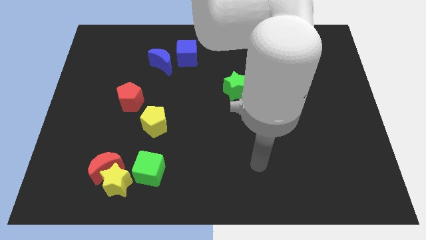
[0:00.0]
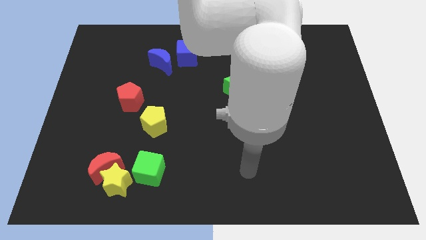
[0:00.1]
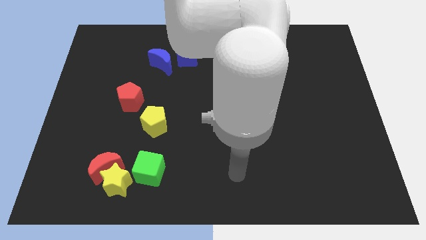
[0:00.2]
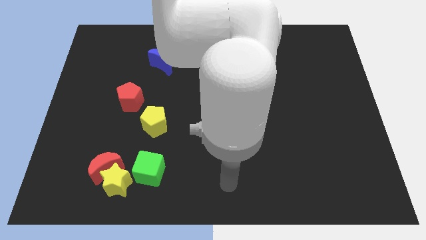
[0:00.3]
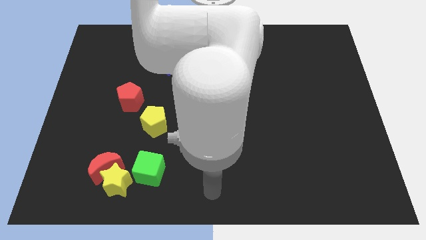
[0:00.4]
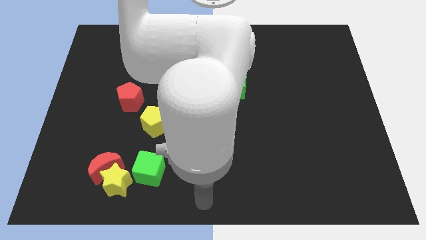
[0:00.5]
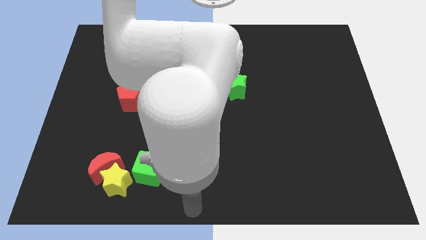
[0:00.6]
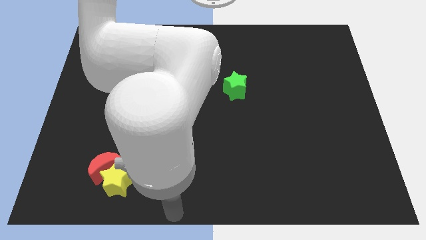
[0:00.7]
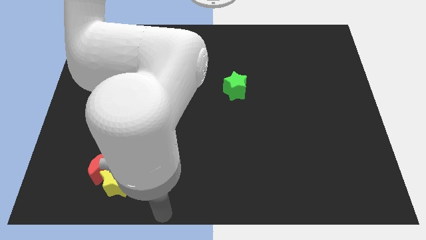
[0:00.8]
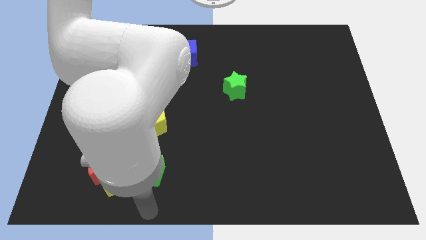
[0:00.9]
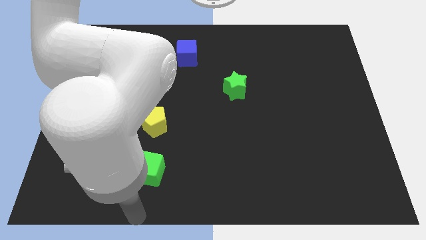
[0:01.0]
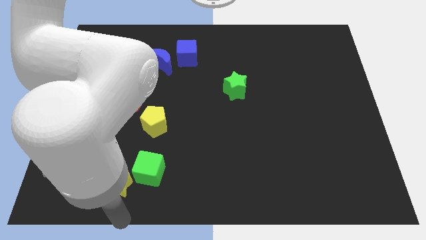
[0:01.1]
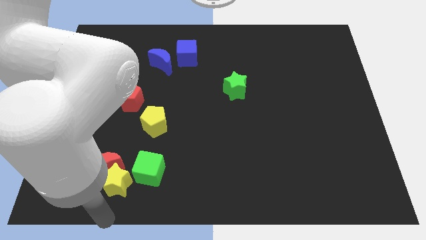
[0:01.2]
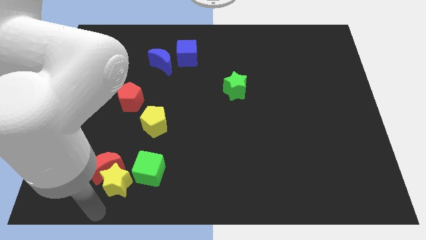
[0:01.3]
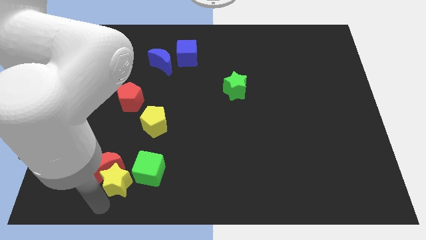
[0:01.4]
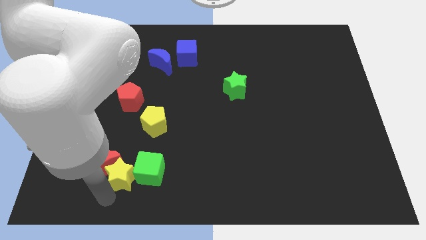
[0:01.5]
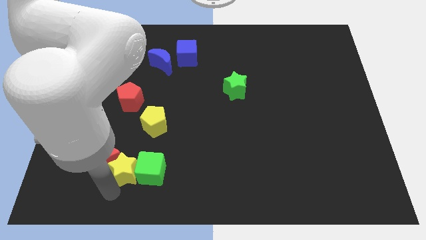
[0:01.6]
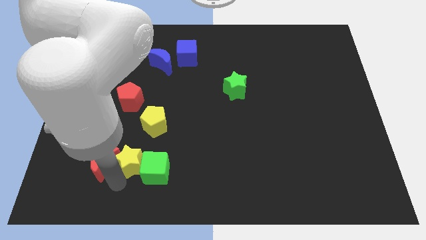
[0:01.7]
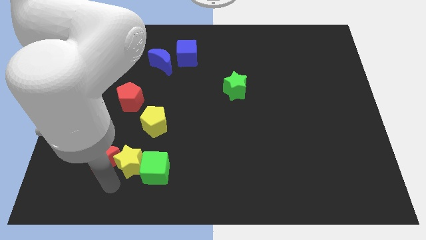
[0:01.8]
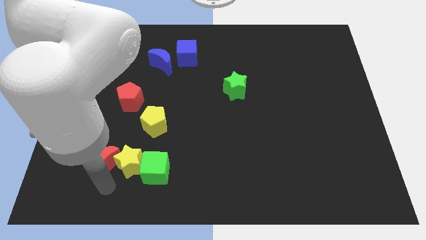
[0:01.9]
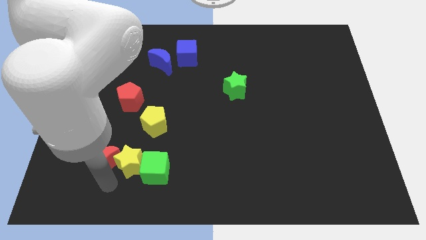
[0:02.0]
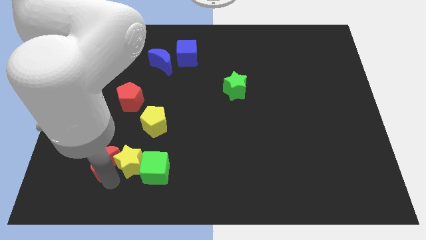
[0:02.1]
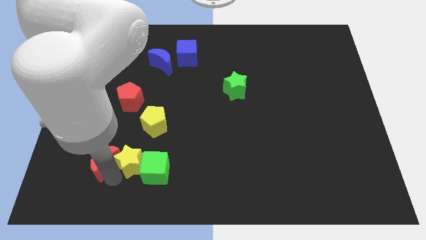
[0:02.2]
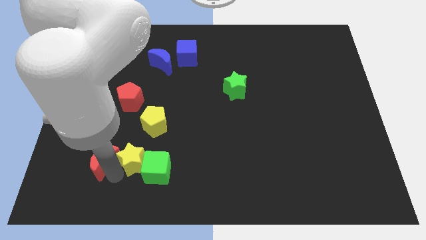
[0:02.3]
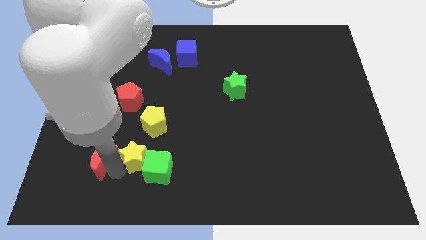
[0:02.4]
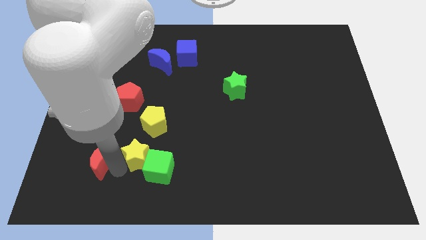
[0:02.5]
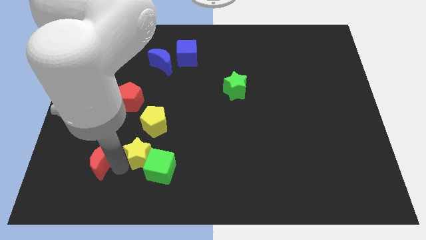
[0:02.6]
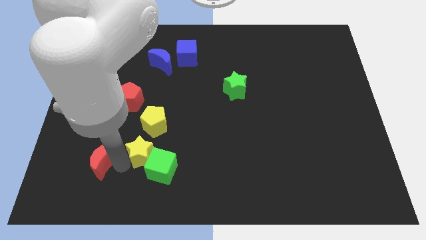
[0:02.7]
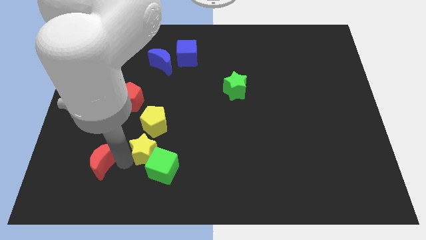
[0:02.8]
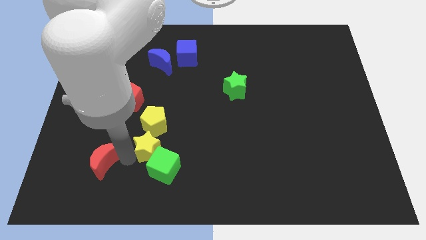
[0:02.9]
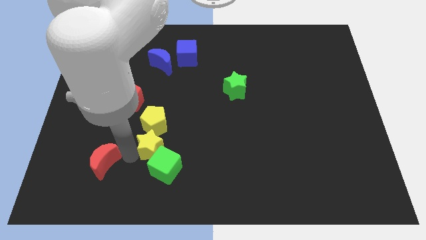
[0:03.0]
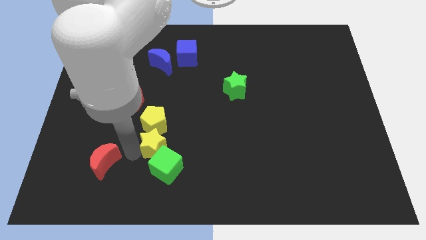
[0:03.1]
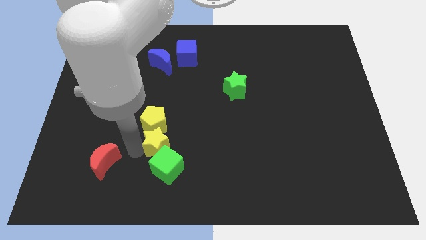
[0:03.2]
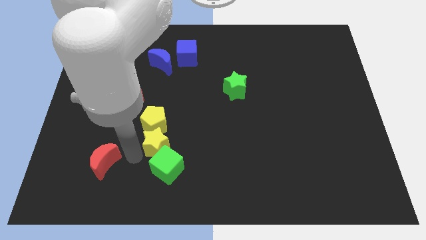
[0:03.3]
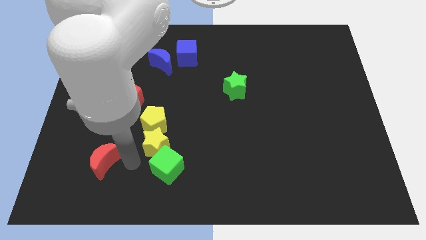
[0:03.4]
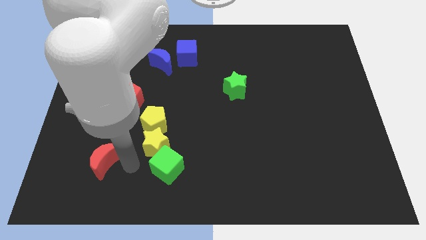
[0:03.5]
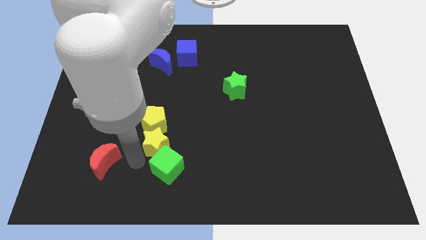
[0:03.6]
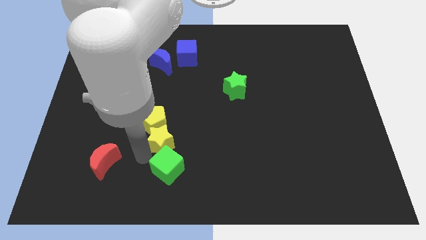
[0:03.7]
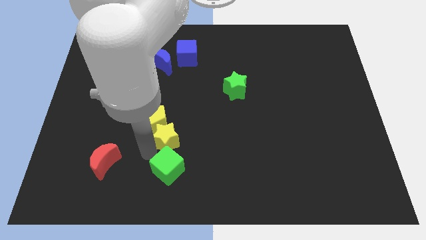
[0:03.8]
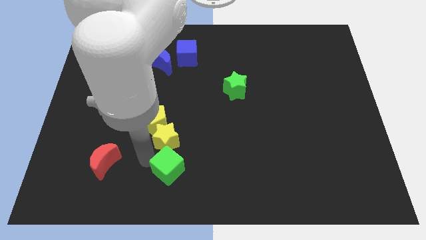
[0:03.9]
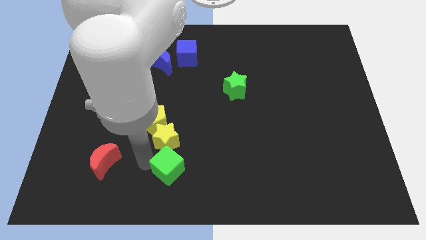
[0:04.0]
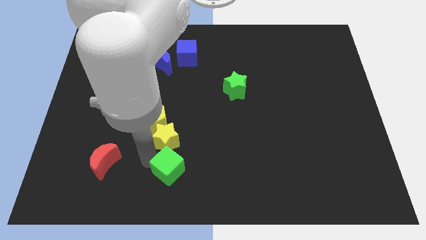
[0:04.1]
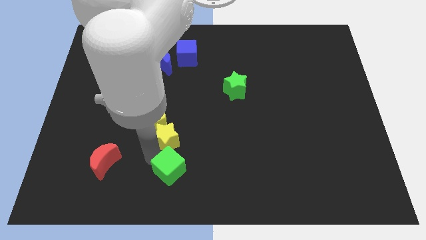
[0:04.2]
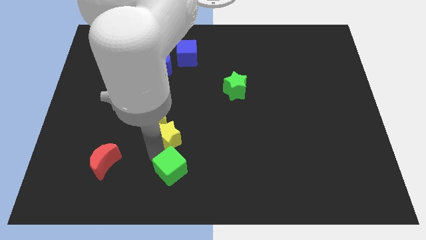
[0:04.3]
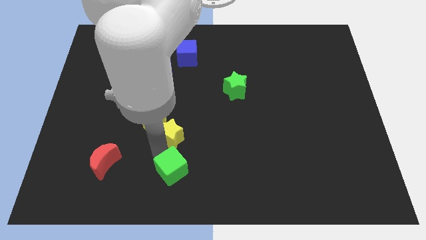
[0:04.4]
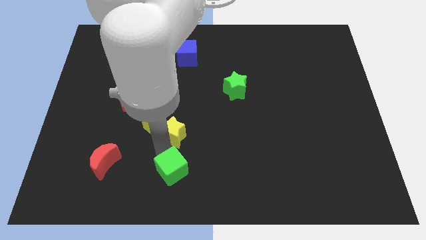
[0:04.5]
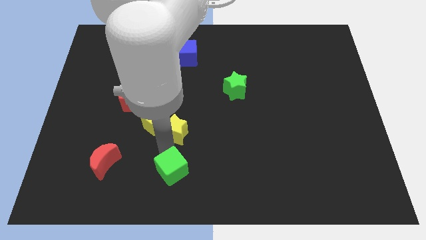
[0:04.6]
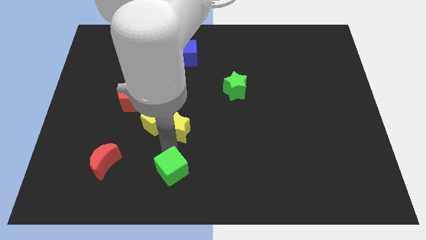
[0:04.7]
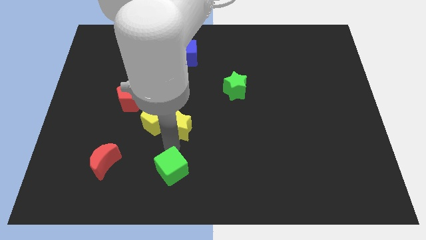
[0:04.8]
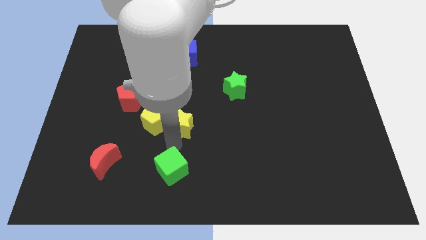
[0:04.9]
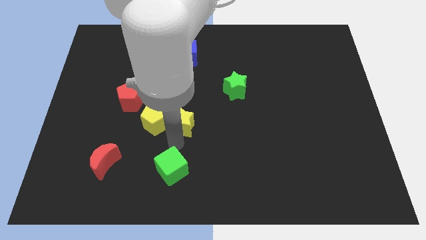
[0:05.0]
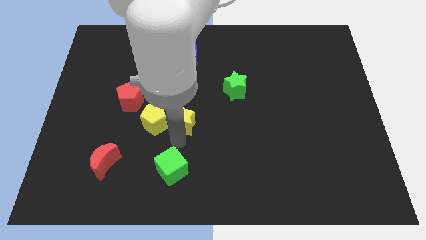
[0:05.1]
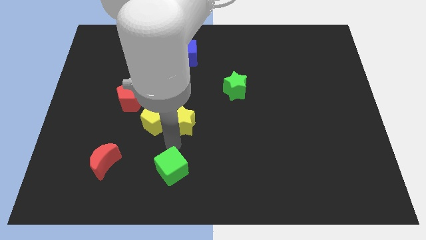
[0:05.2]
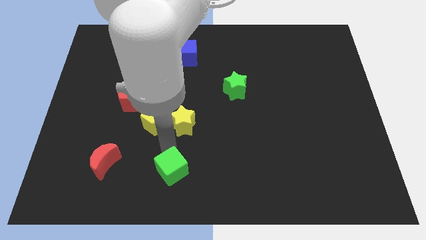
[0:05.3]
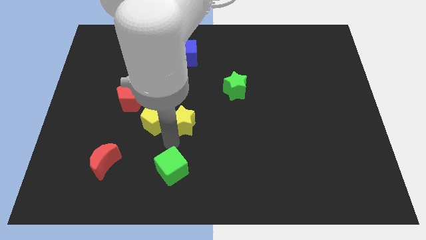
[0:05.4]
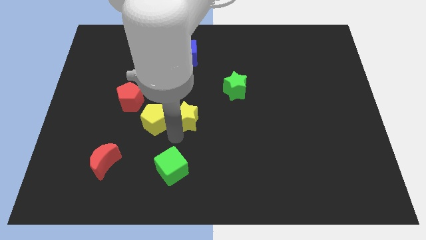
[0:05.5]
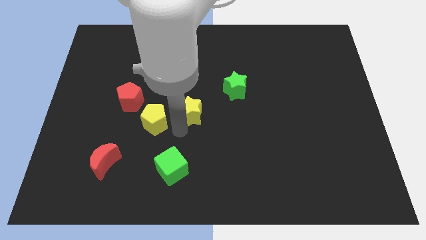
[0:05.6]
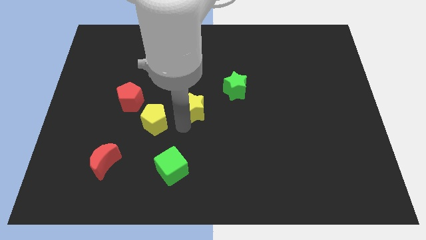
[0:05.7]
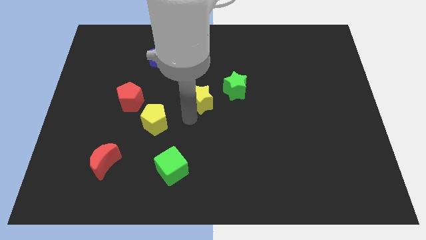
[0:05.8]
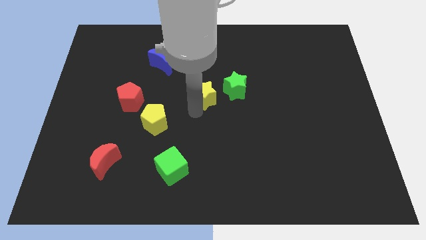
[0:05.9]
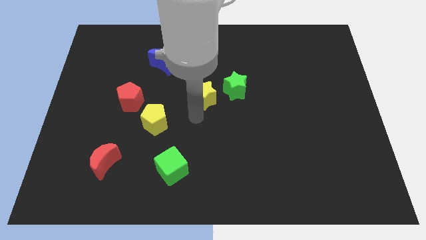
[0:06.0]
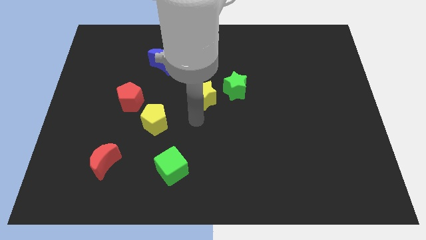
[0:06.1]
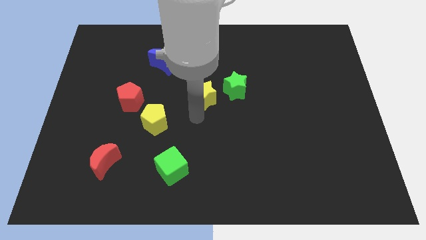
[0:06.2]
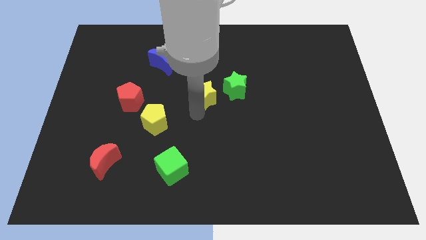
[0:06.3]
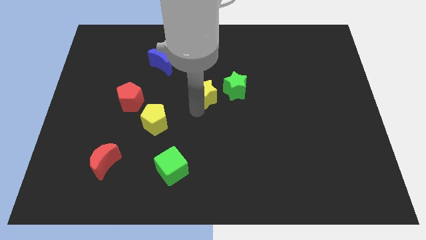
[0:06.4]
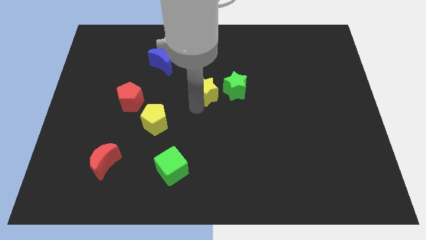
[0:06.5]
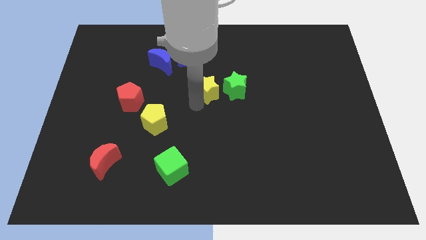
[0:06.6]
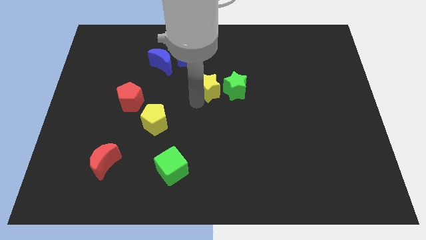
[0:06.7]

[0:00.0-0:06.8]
move the yellow star diagonally up and to the left of the green star
